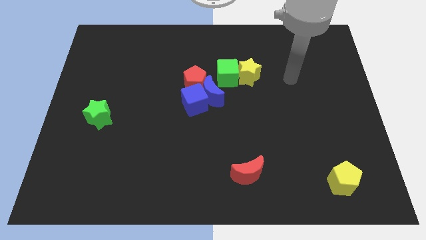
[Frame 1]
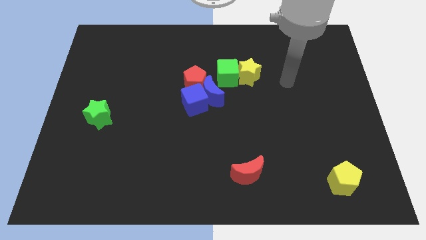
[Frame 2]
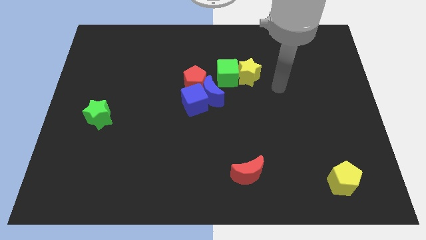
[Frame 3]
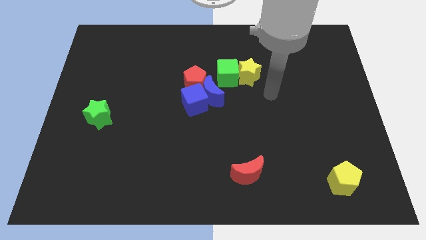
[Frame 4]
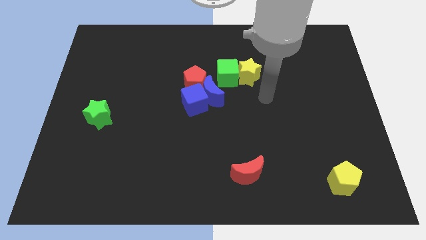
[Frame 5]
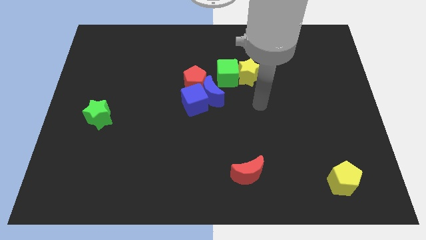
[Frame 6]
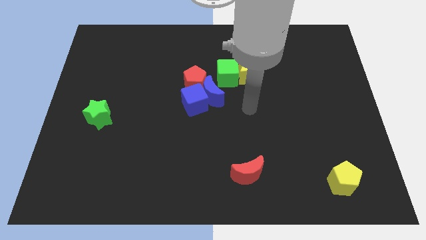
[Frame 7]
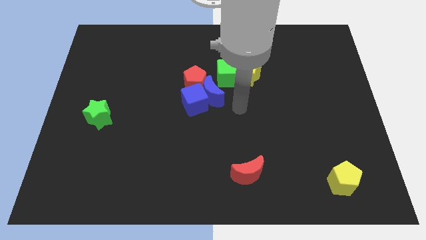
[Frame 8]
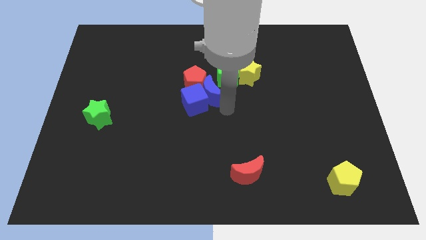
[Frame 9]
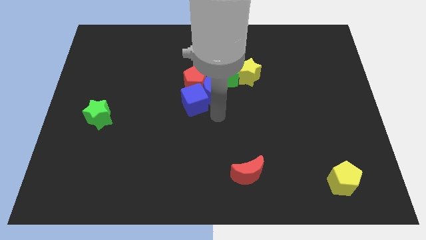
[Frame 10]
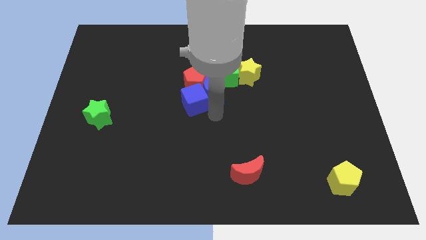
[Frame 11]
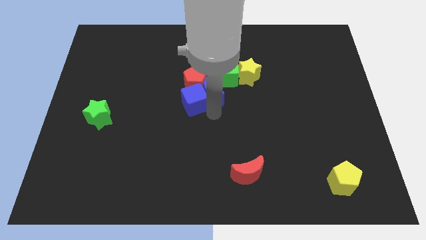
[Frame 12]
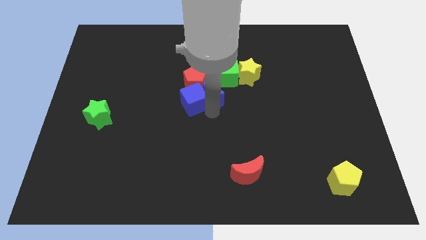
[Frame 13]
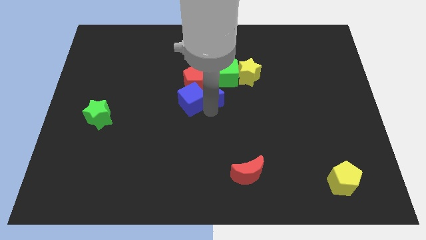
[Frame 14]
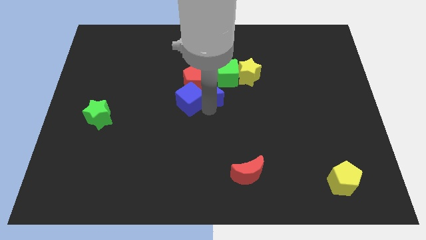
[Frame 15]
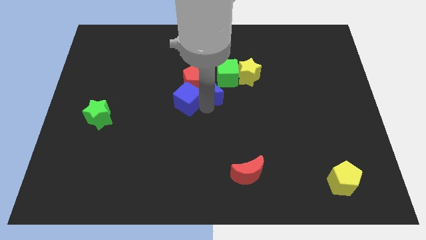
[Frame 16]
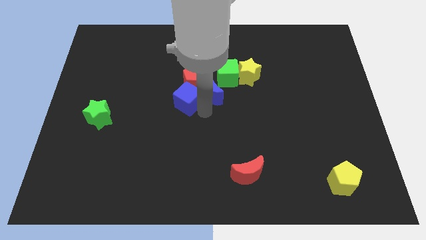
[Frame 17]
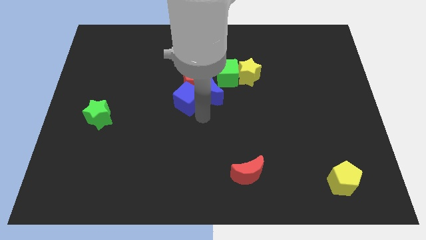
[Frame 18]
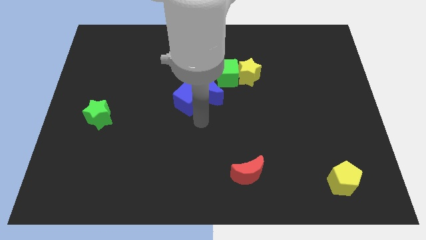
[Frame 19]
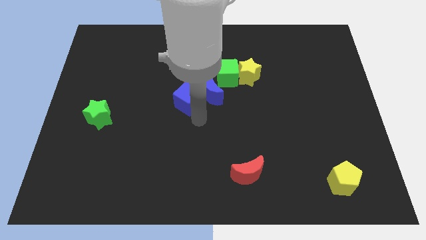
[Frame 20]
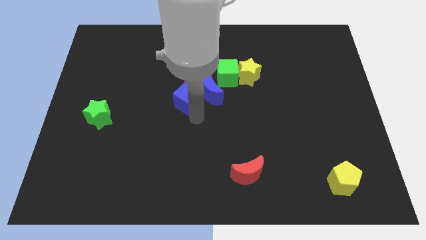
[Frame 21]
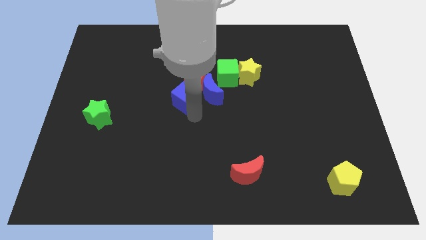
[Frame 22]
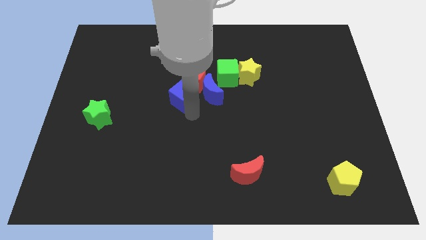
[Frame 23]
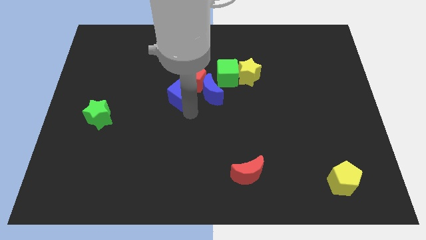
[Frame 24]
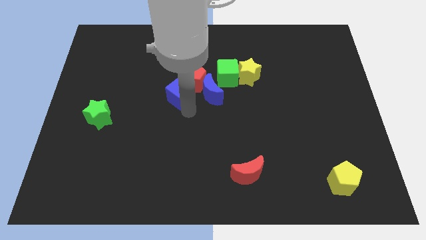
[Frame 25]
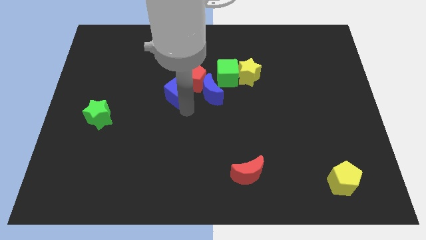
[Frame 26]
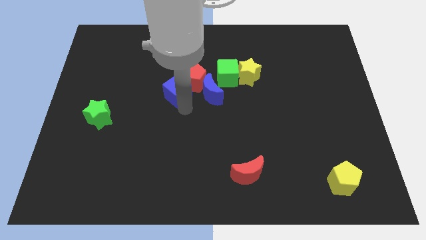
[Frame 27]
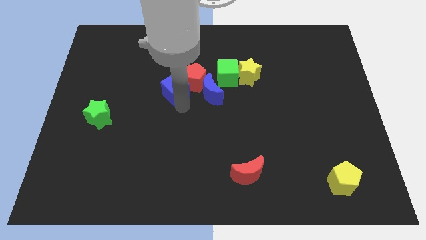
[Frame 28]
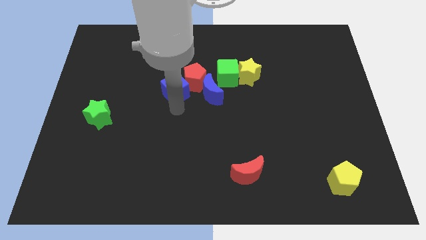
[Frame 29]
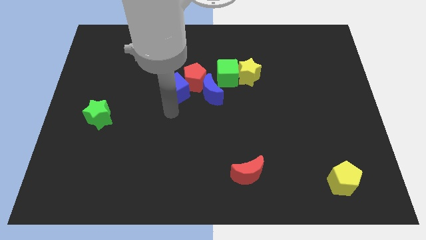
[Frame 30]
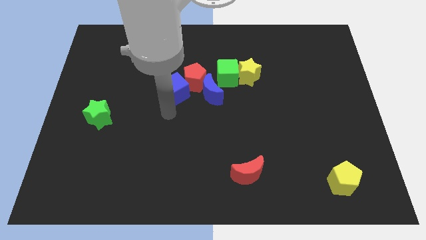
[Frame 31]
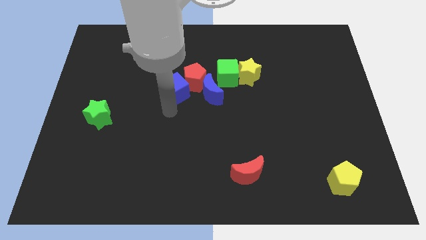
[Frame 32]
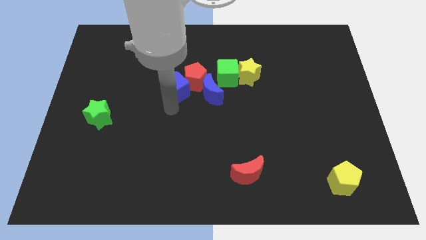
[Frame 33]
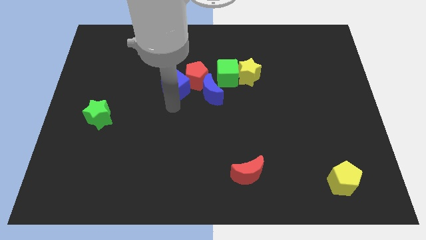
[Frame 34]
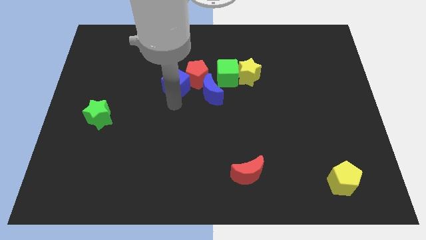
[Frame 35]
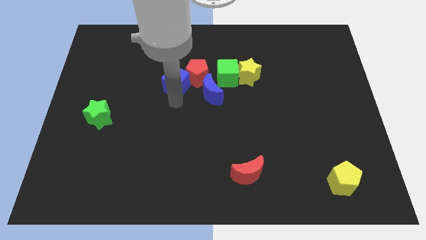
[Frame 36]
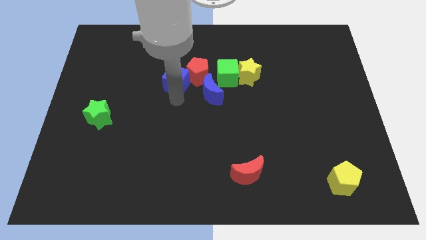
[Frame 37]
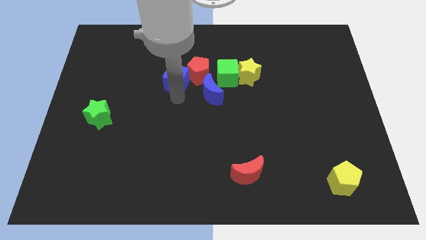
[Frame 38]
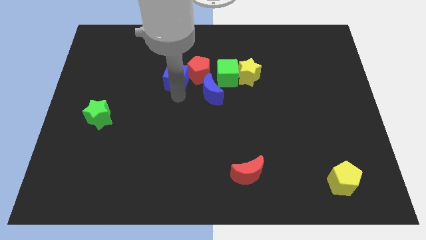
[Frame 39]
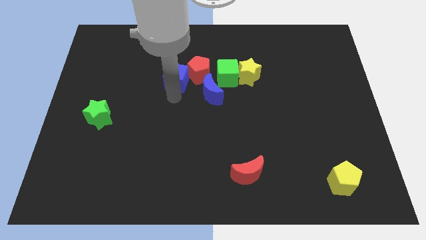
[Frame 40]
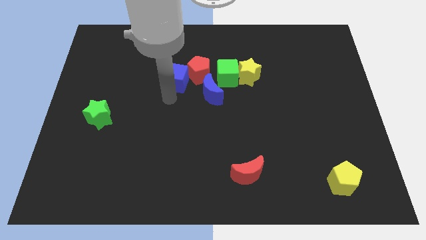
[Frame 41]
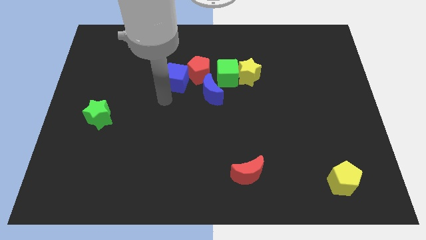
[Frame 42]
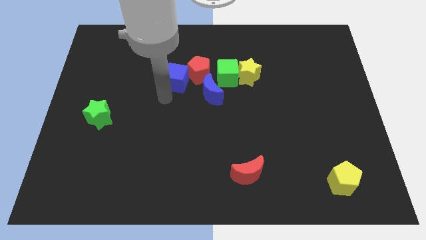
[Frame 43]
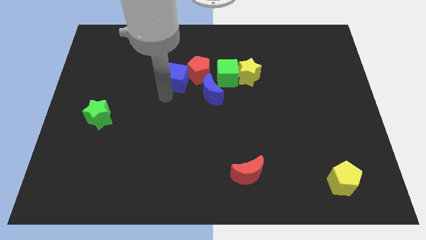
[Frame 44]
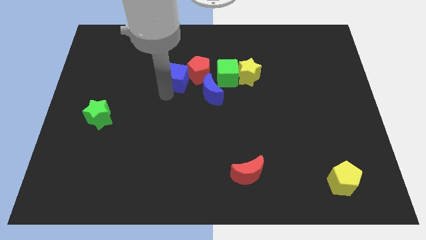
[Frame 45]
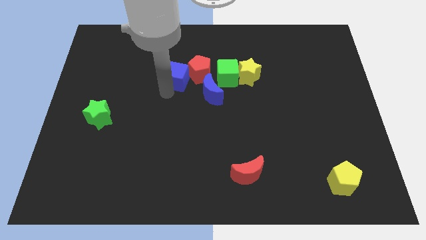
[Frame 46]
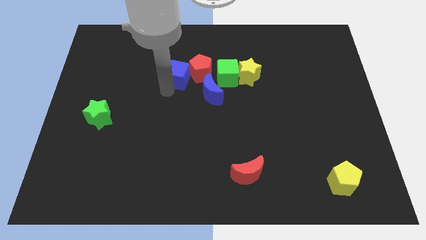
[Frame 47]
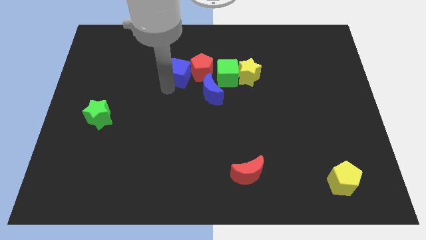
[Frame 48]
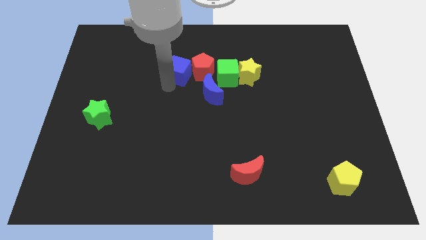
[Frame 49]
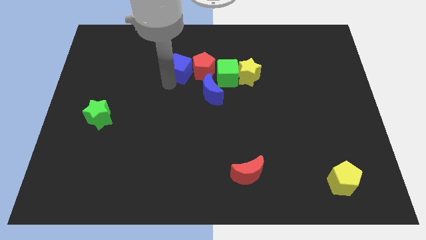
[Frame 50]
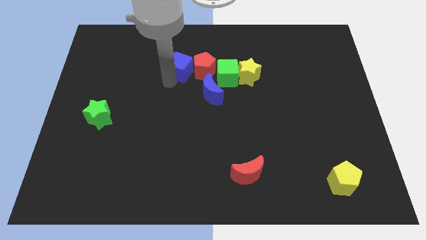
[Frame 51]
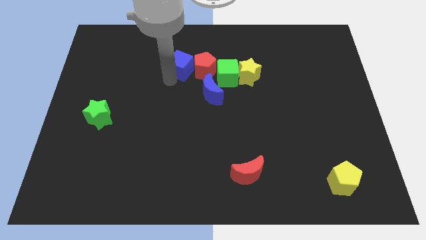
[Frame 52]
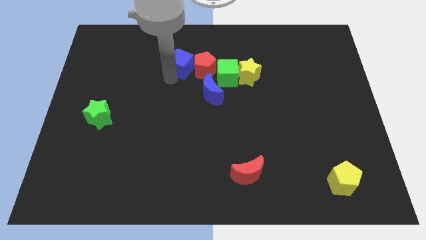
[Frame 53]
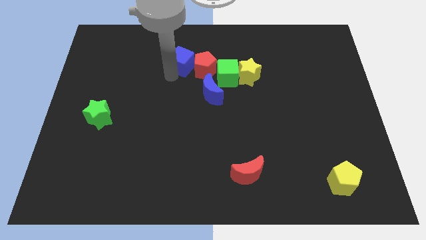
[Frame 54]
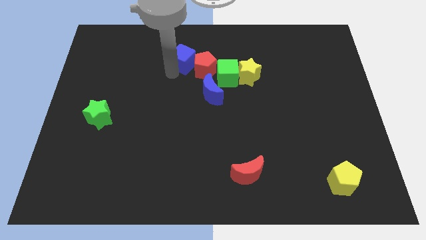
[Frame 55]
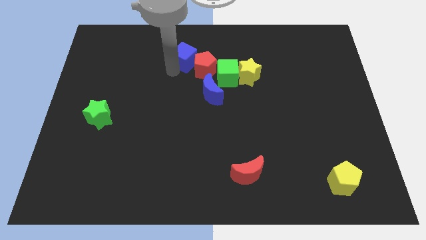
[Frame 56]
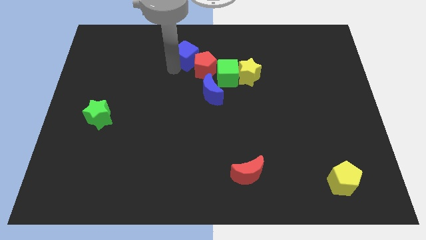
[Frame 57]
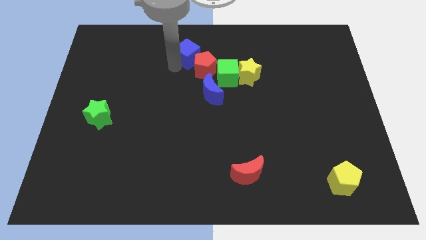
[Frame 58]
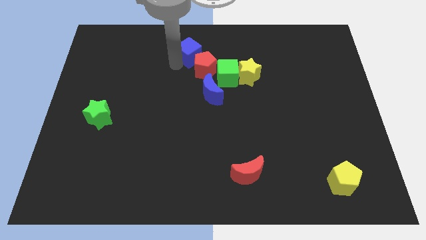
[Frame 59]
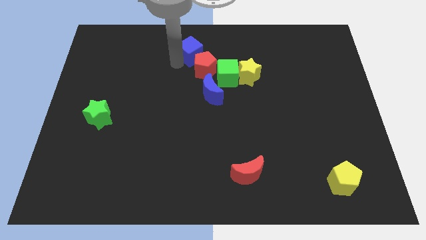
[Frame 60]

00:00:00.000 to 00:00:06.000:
slide the blue cube to the towards your base

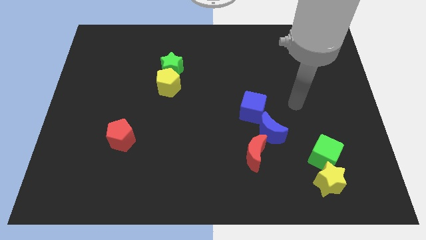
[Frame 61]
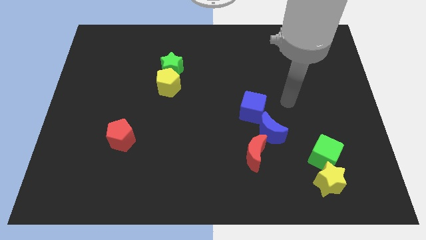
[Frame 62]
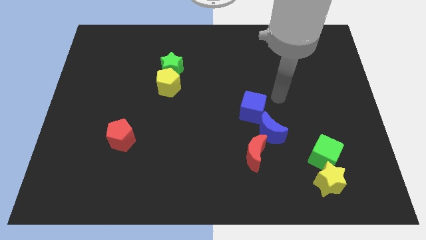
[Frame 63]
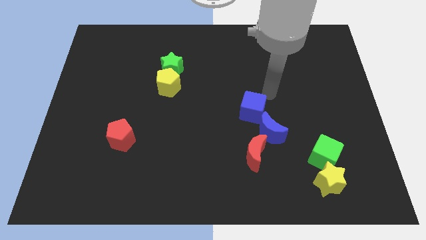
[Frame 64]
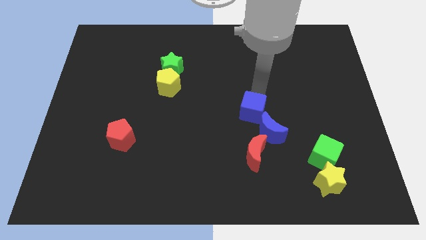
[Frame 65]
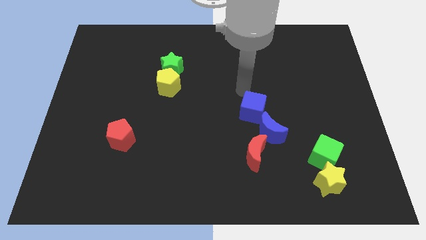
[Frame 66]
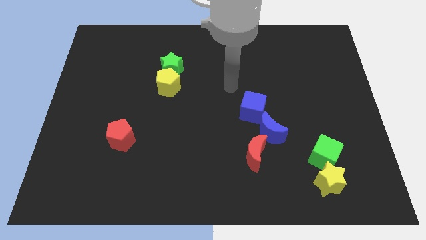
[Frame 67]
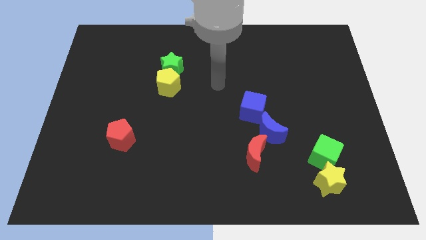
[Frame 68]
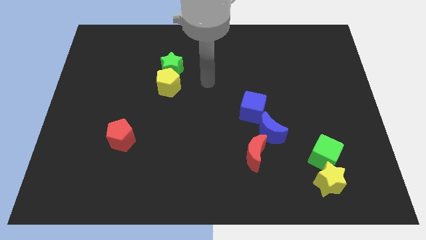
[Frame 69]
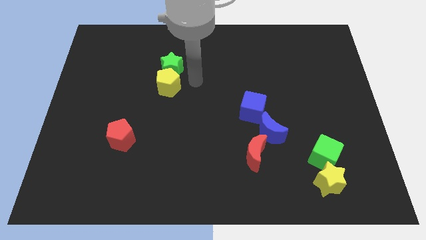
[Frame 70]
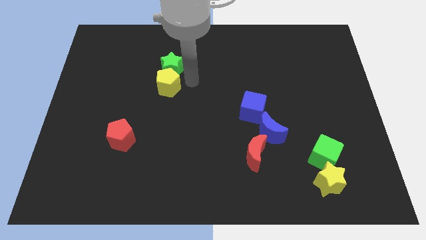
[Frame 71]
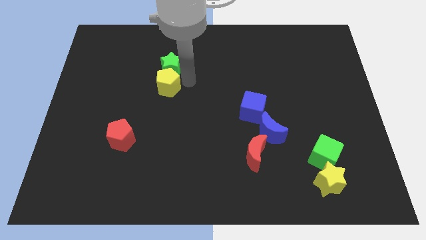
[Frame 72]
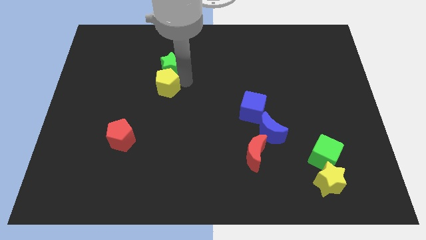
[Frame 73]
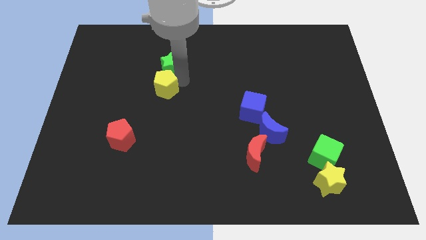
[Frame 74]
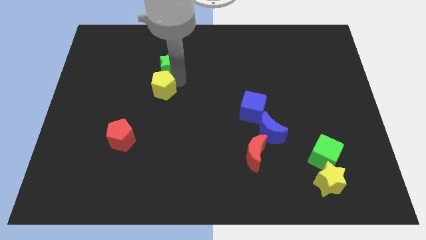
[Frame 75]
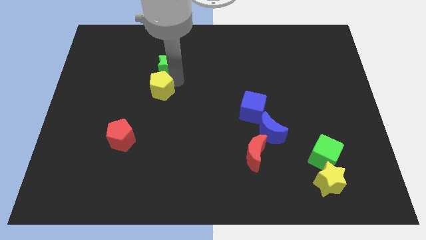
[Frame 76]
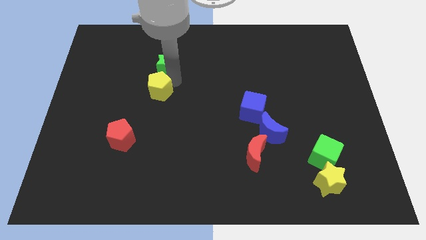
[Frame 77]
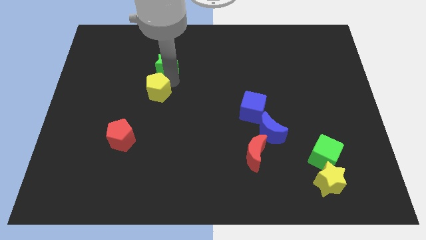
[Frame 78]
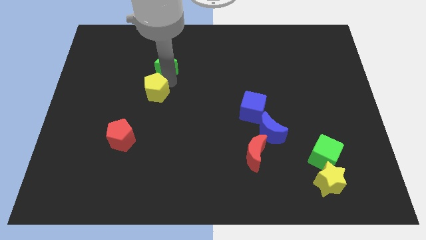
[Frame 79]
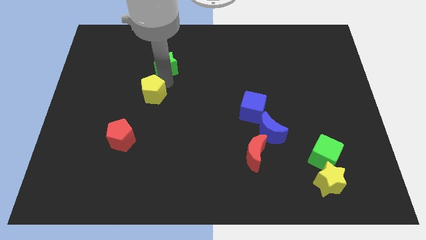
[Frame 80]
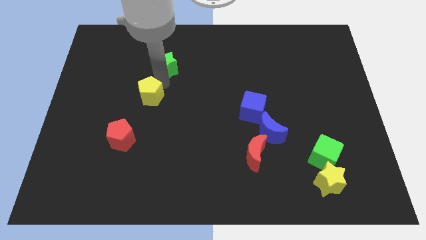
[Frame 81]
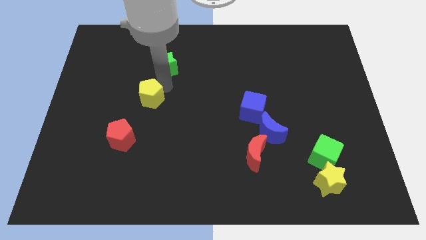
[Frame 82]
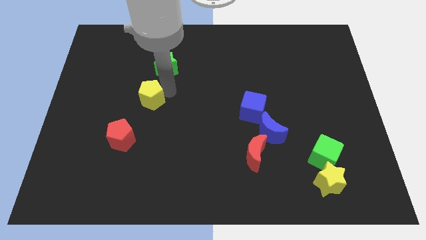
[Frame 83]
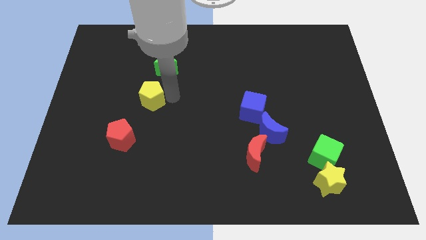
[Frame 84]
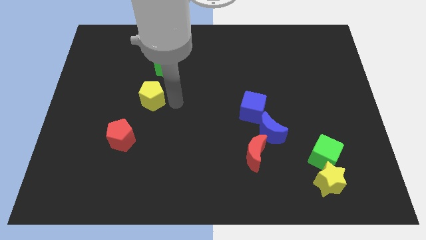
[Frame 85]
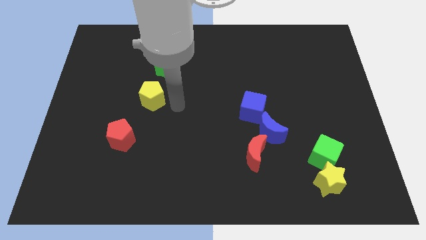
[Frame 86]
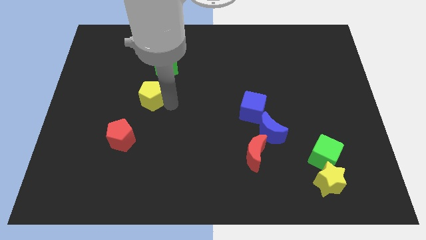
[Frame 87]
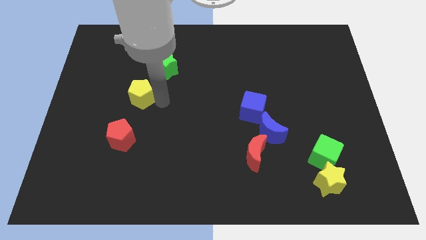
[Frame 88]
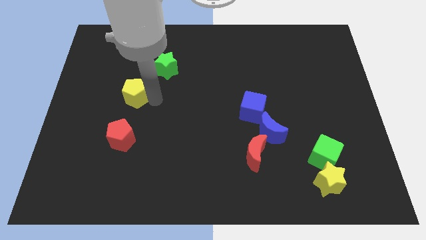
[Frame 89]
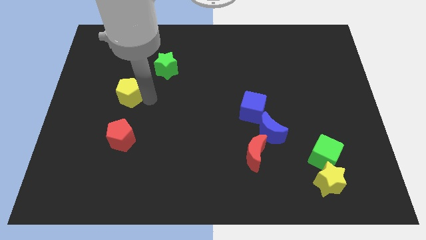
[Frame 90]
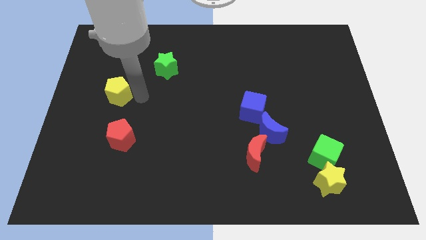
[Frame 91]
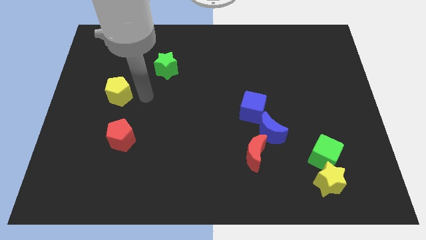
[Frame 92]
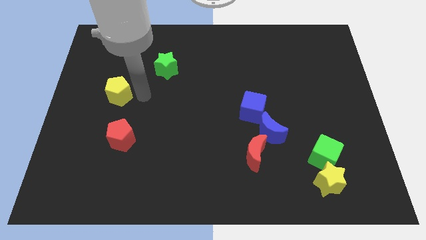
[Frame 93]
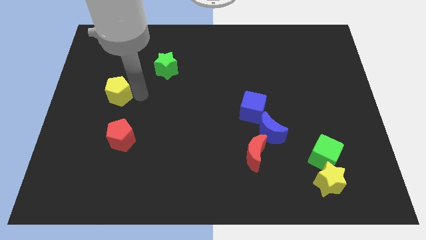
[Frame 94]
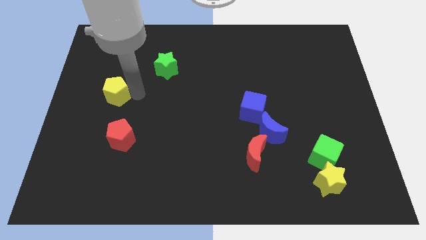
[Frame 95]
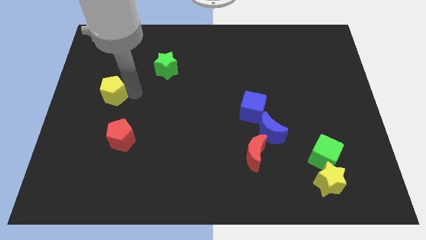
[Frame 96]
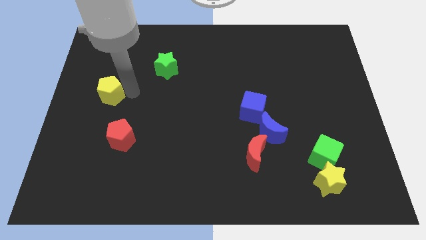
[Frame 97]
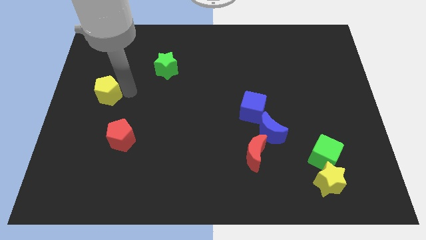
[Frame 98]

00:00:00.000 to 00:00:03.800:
push the yellow pentagon to the center left
